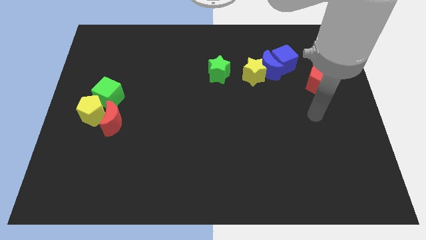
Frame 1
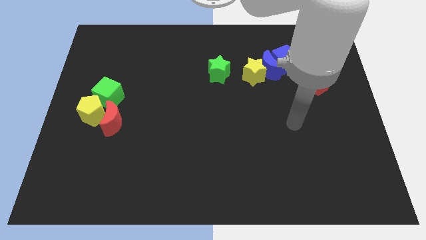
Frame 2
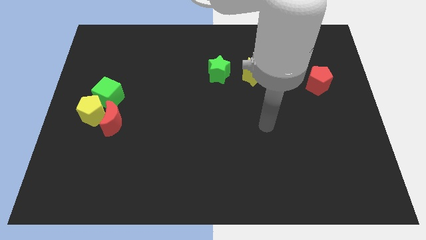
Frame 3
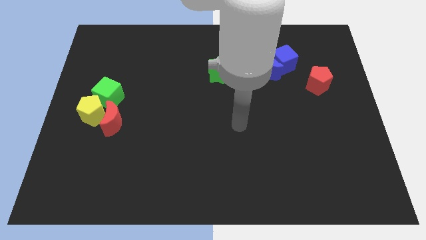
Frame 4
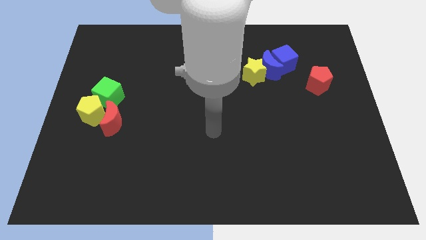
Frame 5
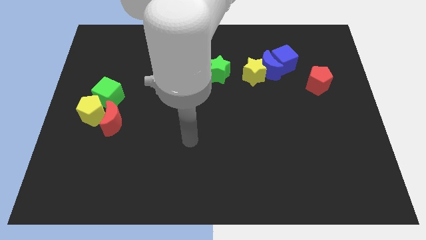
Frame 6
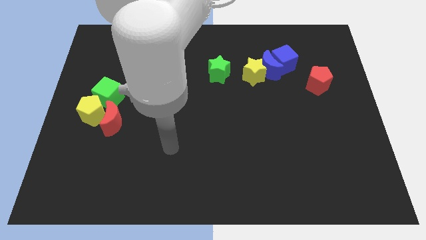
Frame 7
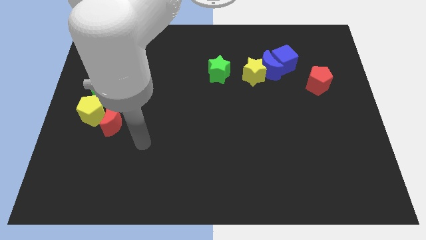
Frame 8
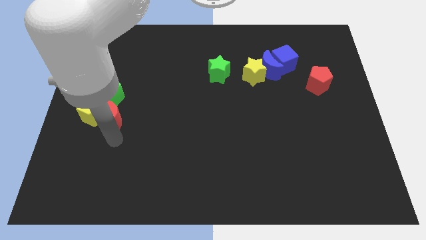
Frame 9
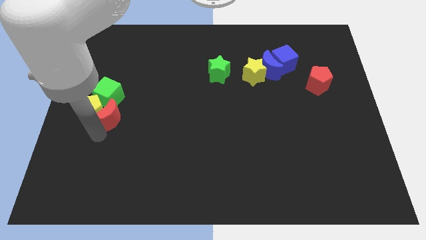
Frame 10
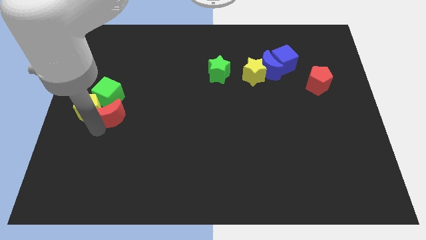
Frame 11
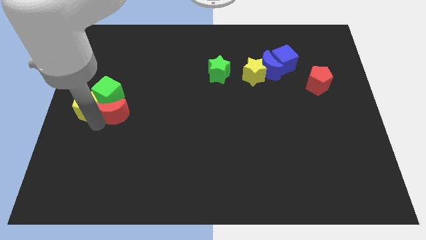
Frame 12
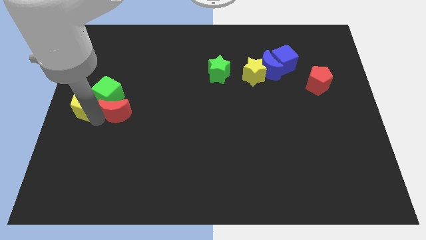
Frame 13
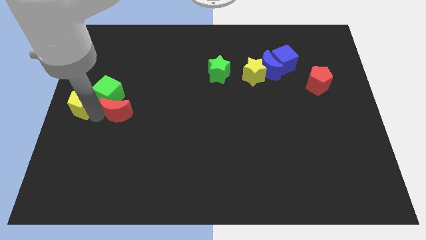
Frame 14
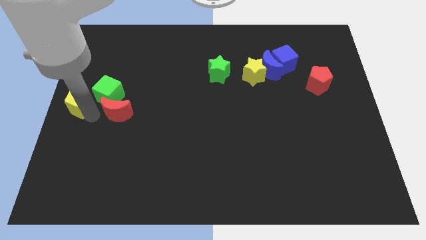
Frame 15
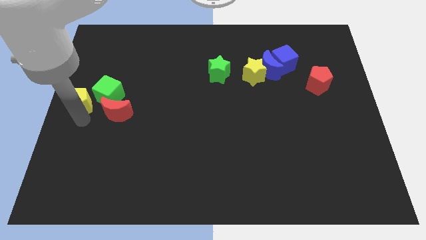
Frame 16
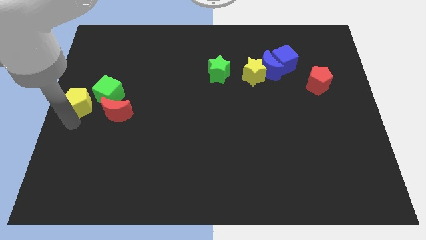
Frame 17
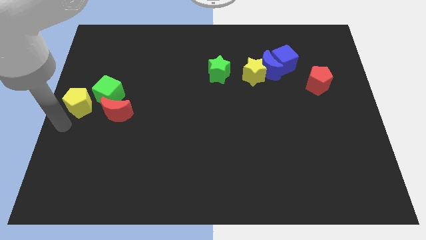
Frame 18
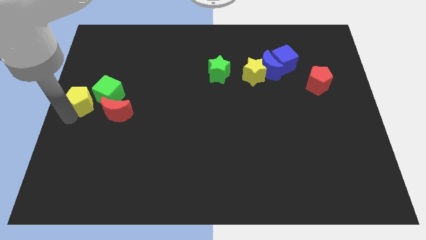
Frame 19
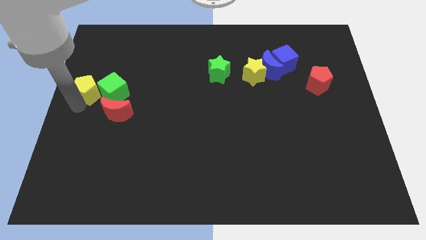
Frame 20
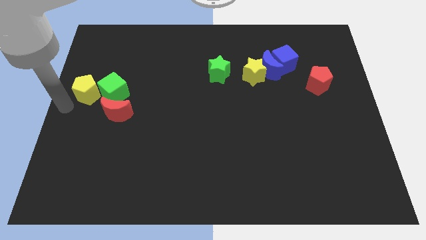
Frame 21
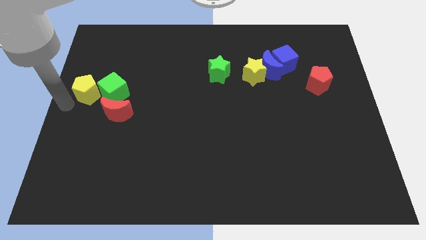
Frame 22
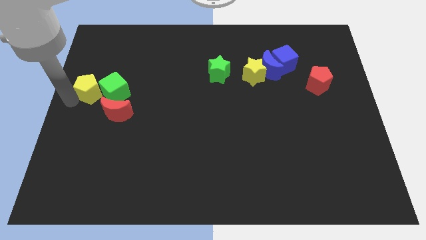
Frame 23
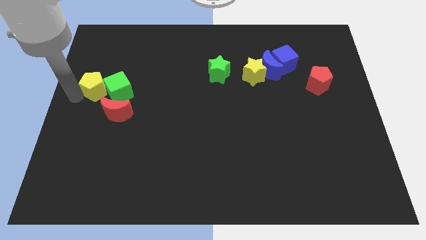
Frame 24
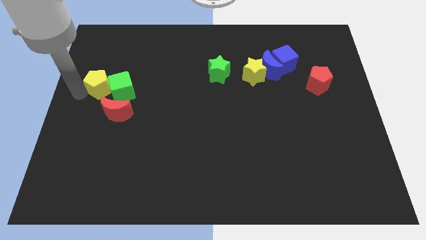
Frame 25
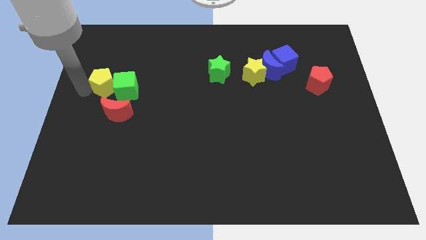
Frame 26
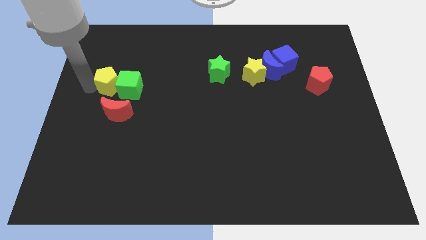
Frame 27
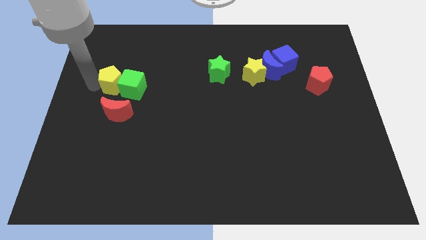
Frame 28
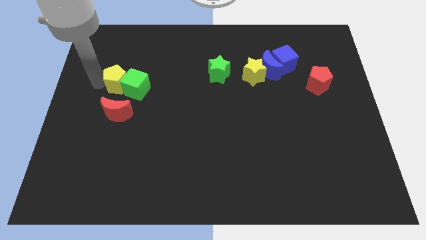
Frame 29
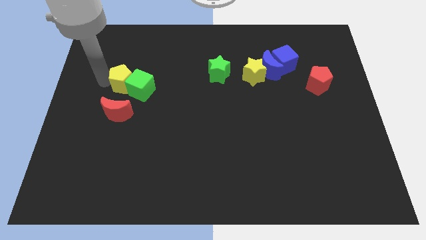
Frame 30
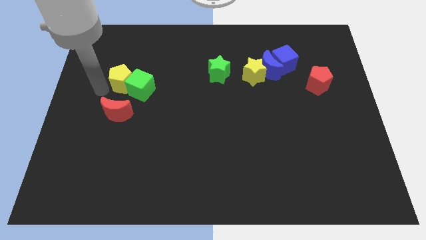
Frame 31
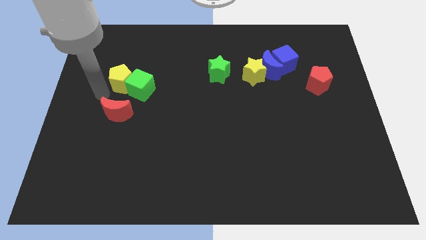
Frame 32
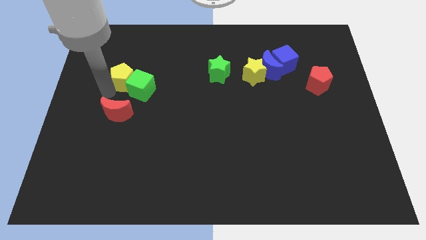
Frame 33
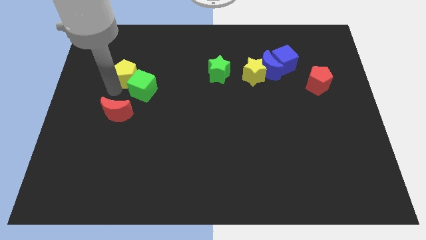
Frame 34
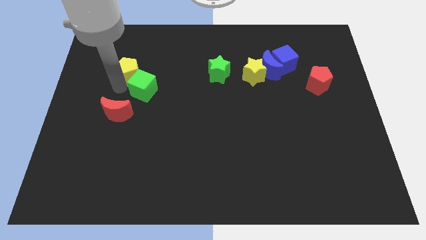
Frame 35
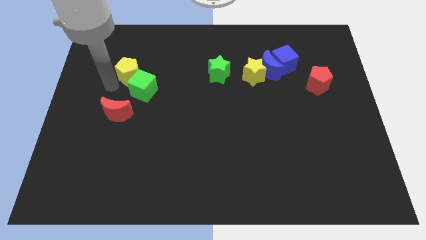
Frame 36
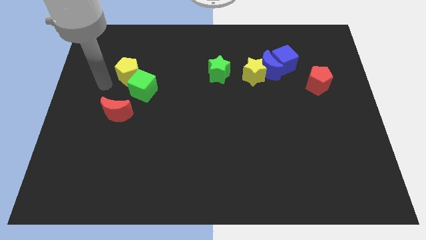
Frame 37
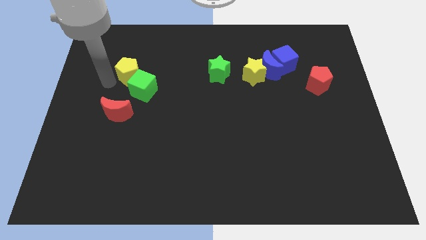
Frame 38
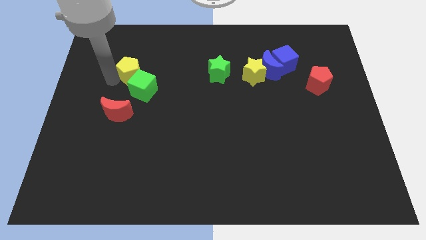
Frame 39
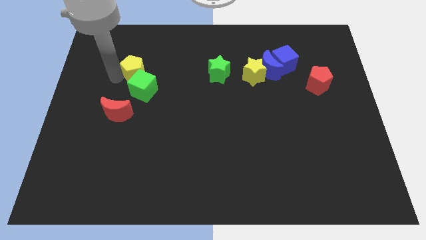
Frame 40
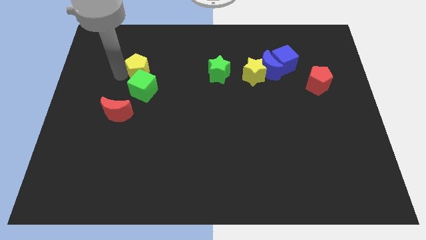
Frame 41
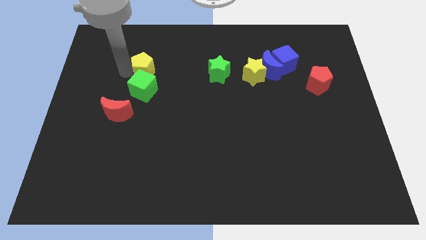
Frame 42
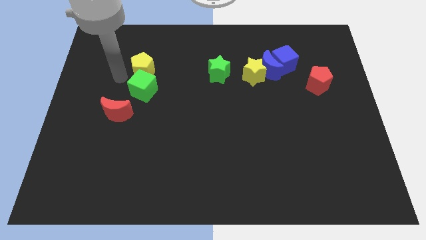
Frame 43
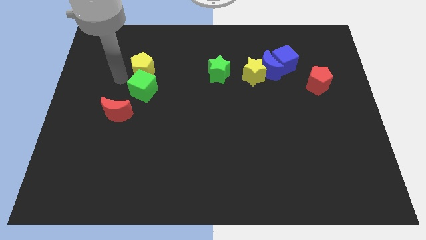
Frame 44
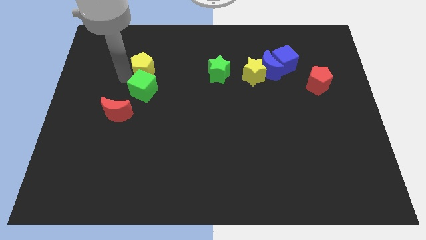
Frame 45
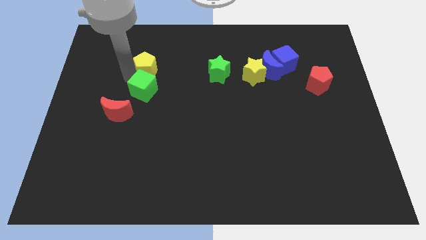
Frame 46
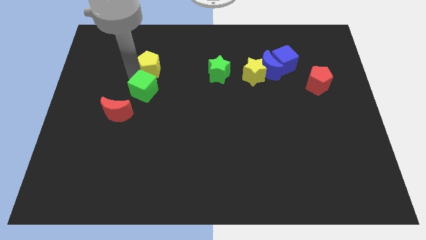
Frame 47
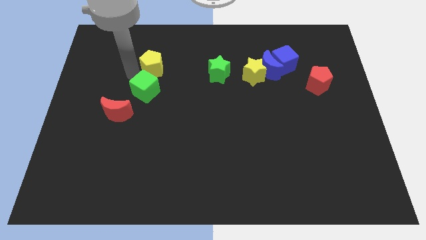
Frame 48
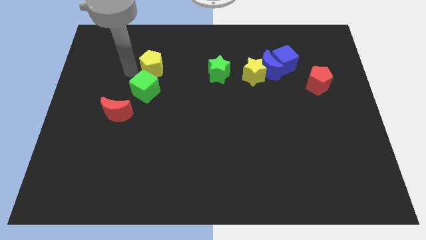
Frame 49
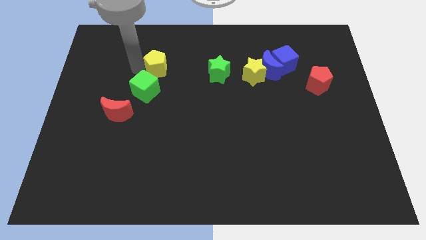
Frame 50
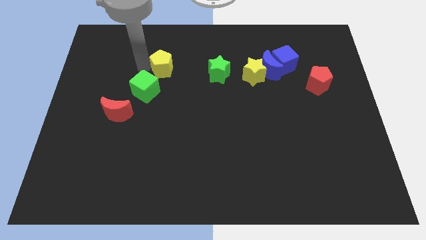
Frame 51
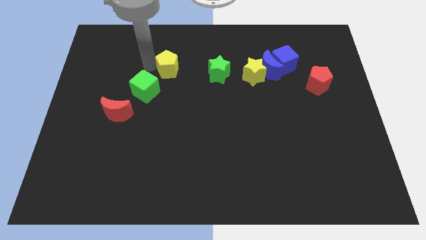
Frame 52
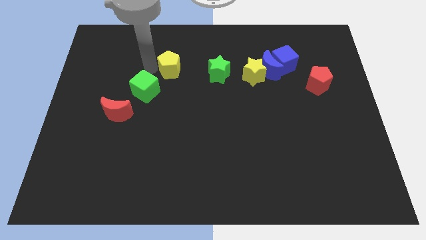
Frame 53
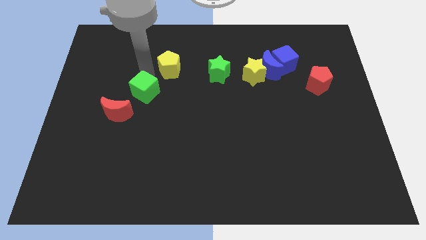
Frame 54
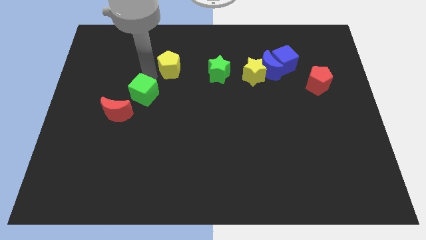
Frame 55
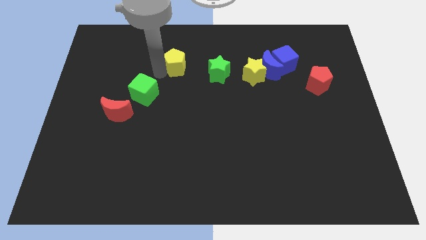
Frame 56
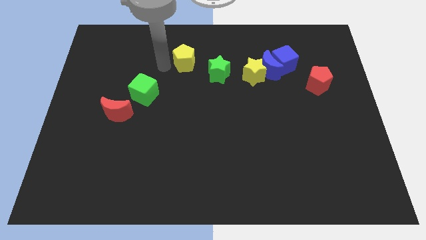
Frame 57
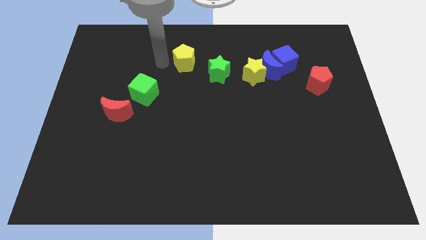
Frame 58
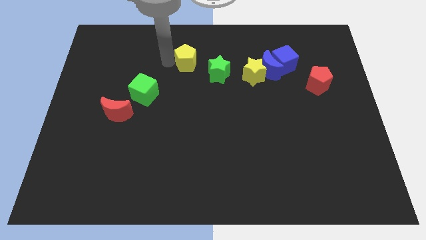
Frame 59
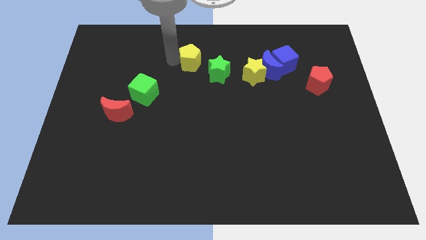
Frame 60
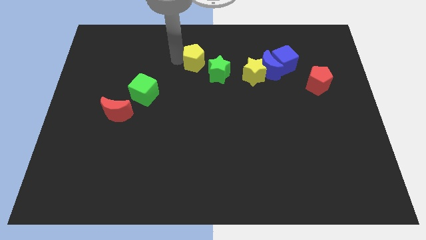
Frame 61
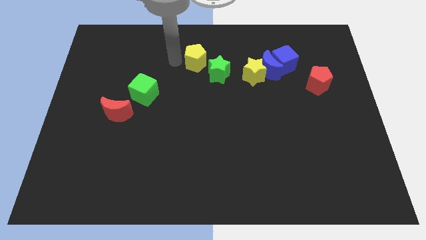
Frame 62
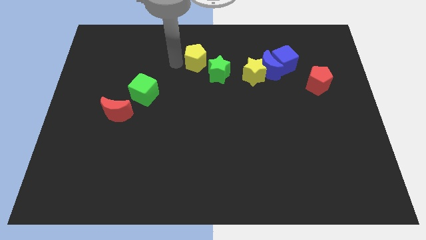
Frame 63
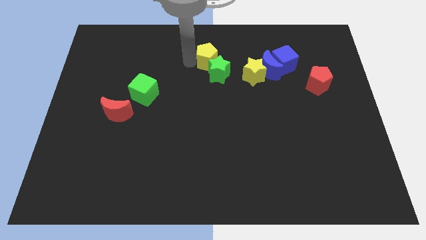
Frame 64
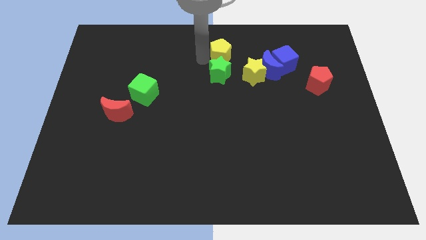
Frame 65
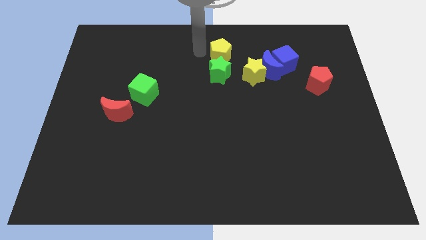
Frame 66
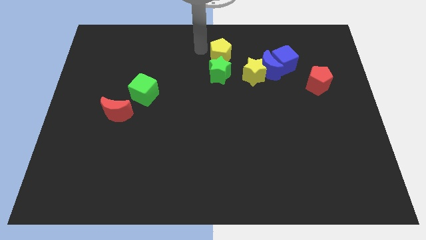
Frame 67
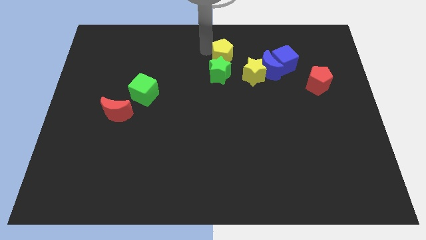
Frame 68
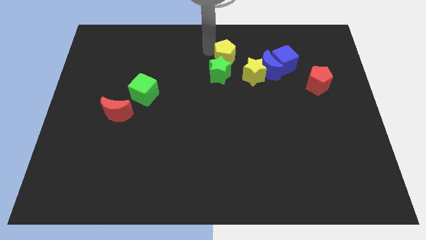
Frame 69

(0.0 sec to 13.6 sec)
slide the yellow pentagon just left of the blue cube

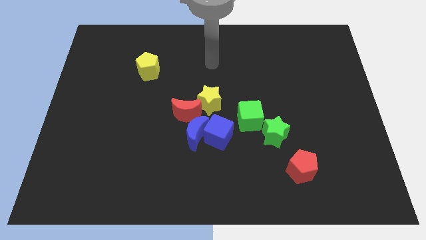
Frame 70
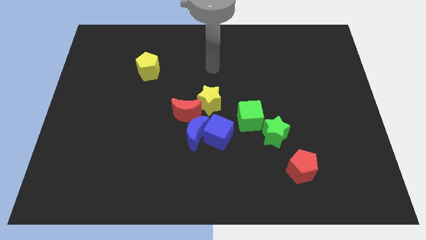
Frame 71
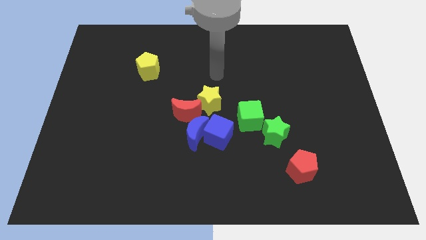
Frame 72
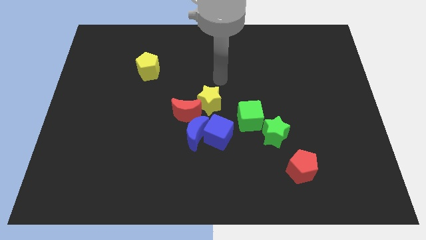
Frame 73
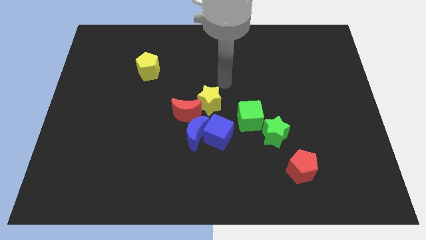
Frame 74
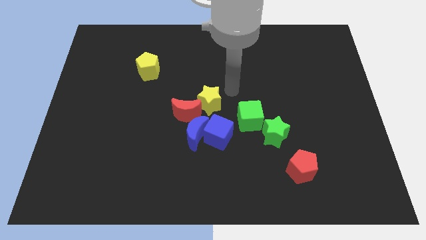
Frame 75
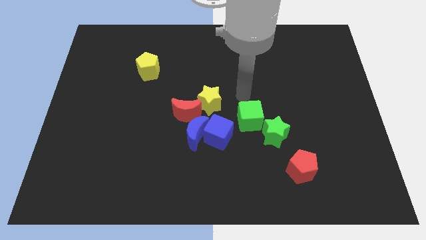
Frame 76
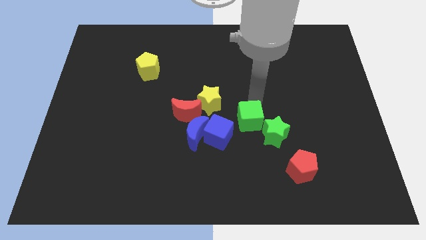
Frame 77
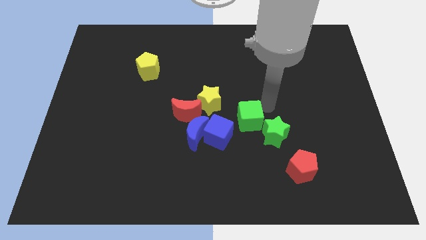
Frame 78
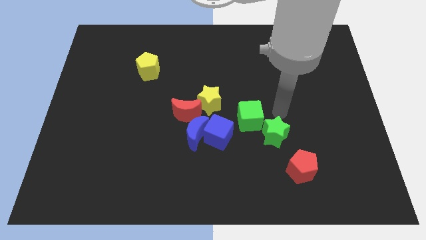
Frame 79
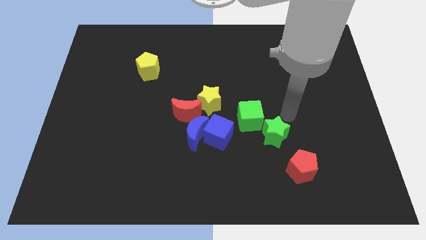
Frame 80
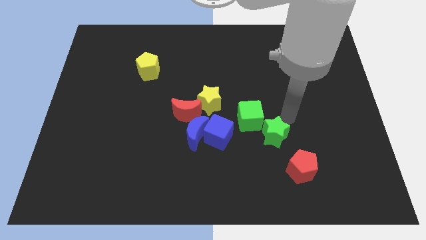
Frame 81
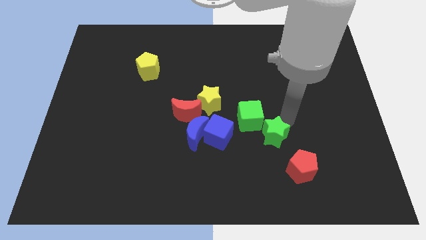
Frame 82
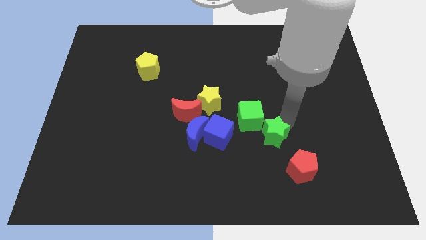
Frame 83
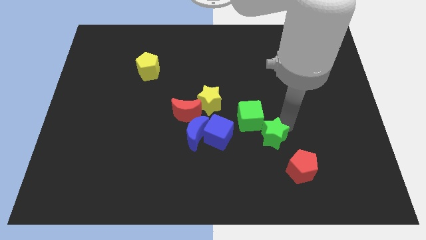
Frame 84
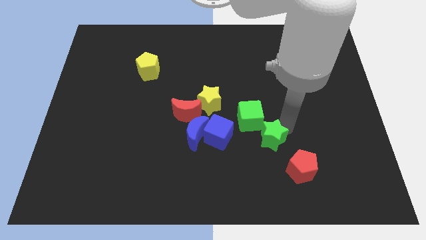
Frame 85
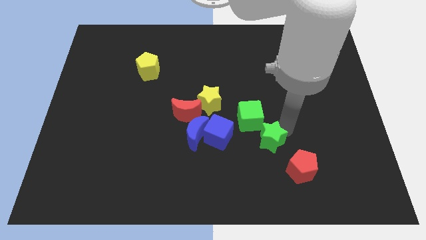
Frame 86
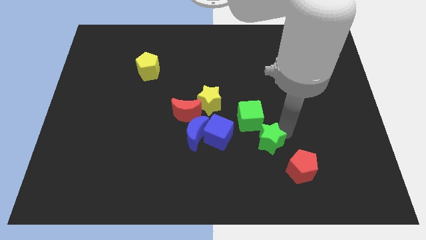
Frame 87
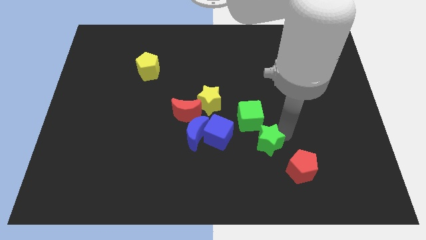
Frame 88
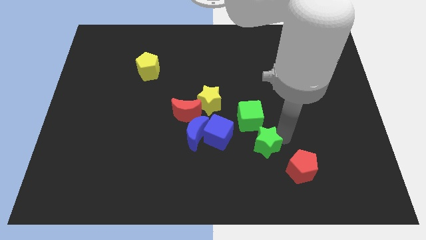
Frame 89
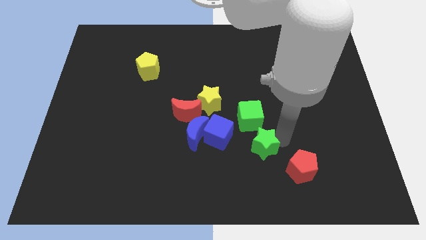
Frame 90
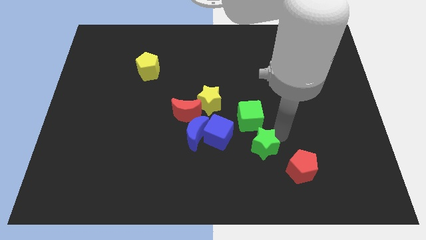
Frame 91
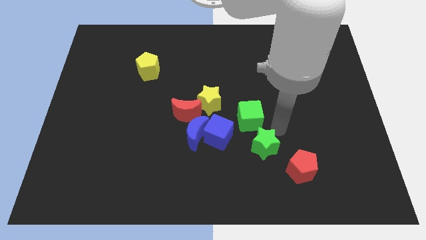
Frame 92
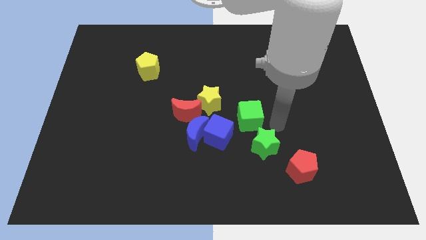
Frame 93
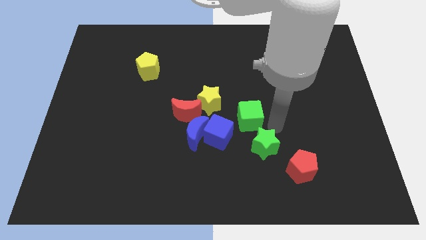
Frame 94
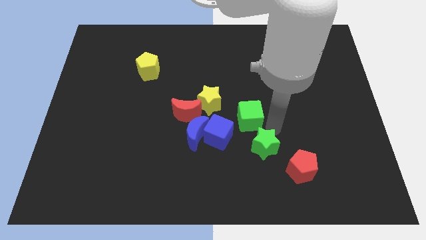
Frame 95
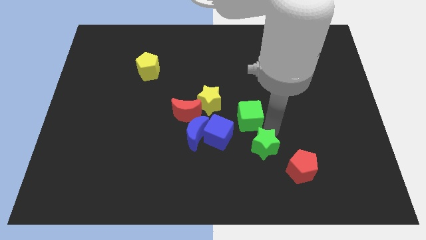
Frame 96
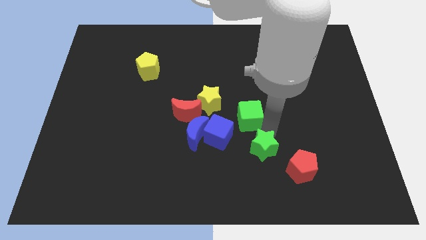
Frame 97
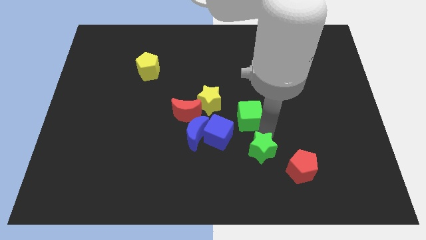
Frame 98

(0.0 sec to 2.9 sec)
slide the green star just left of the red pentagon
